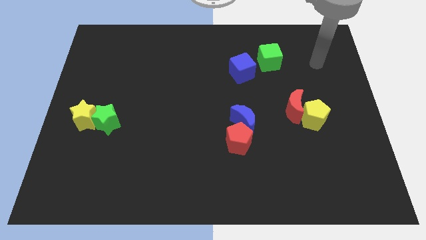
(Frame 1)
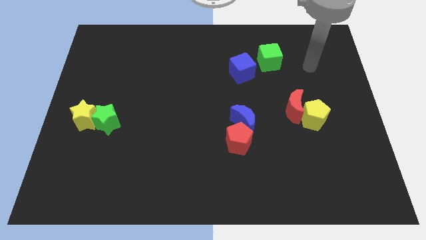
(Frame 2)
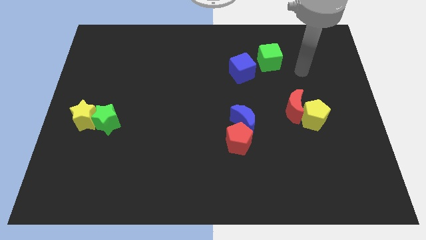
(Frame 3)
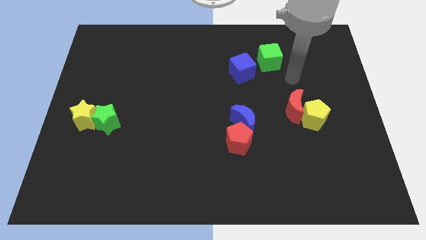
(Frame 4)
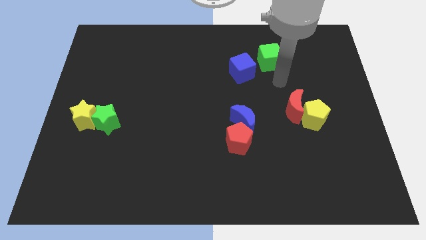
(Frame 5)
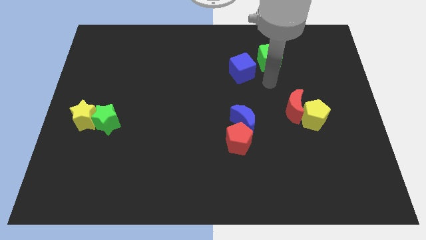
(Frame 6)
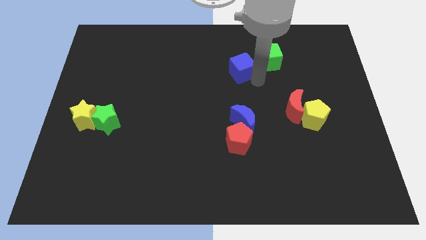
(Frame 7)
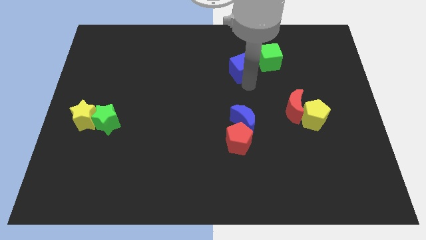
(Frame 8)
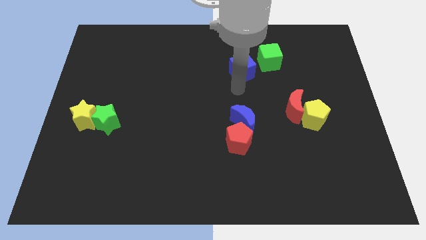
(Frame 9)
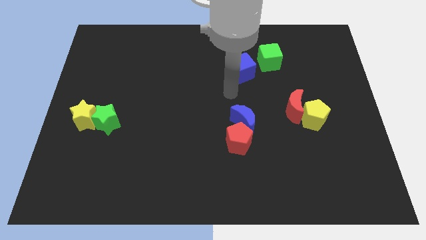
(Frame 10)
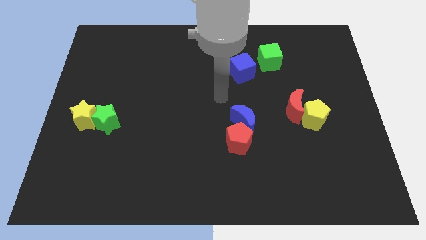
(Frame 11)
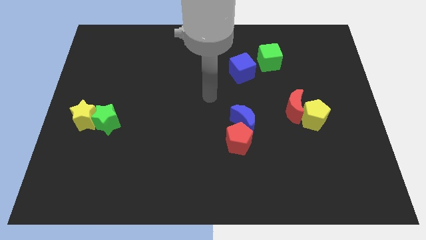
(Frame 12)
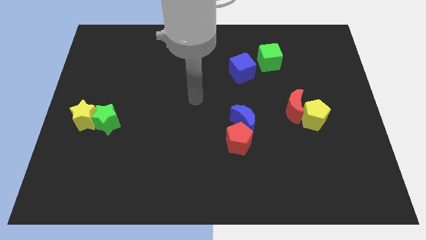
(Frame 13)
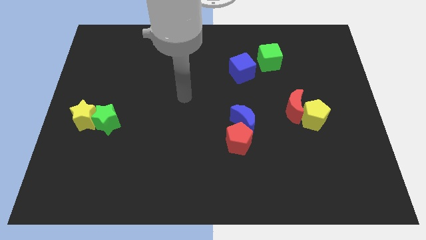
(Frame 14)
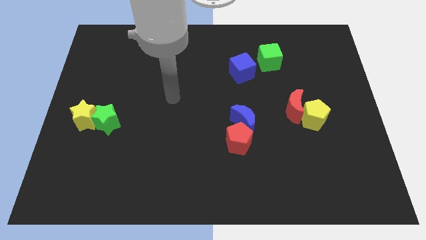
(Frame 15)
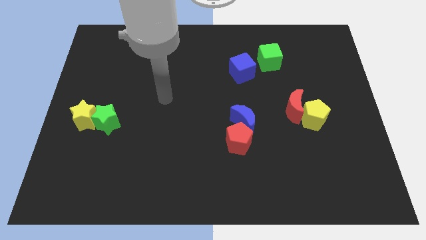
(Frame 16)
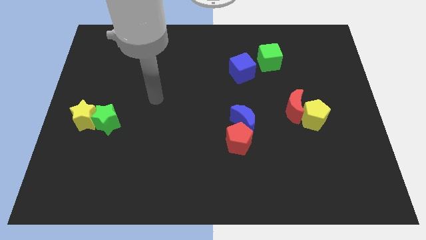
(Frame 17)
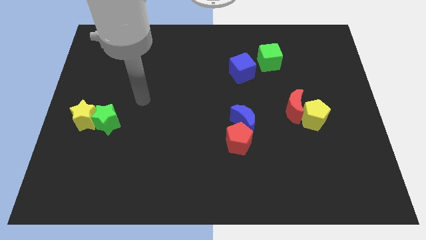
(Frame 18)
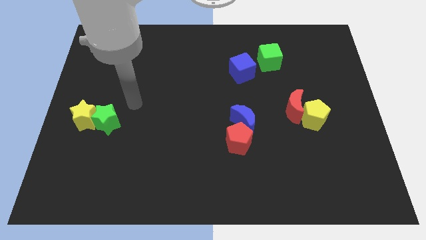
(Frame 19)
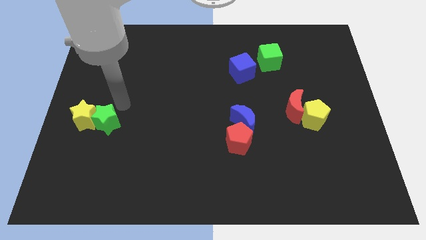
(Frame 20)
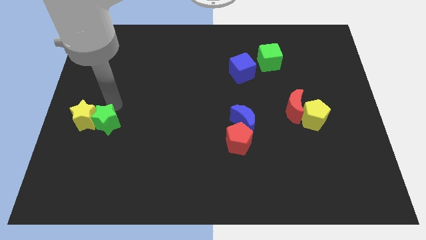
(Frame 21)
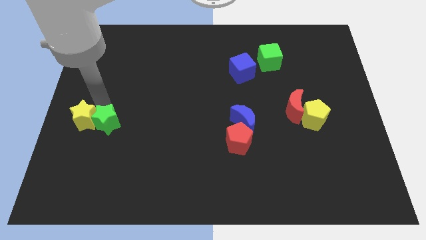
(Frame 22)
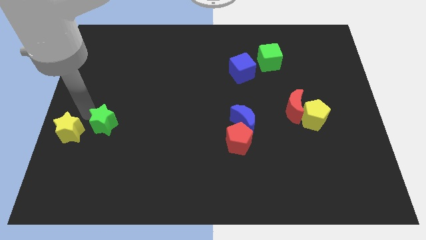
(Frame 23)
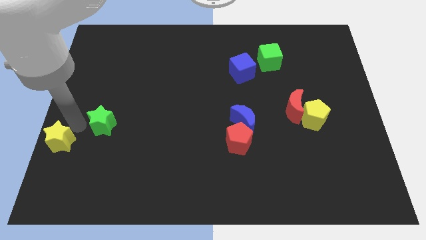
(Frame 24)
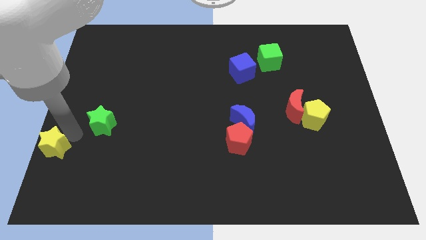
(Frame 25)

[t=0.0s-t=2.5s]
pull the green star apart from the yellow star

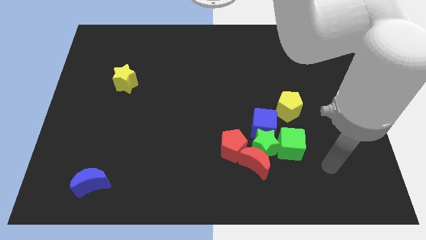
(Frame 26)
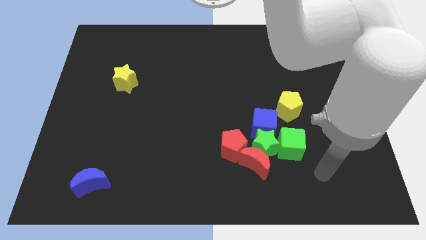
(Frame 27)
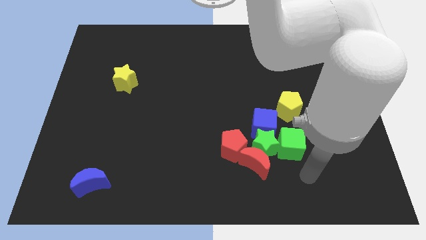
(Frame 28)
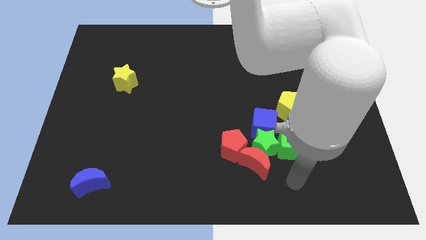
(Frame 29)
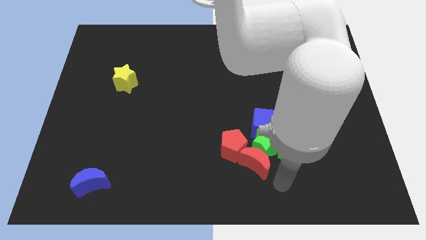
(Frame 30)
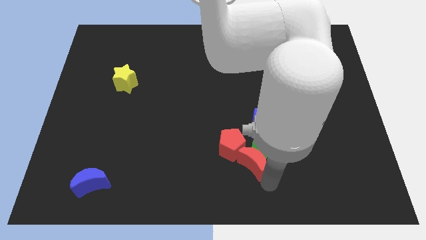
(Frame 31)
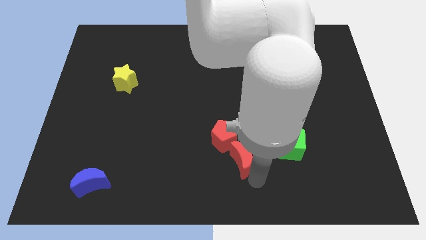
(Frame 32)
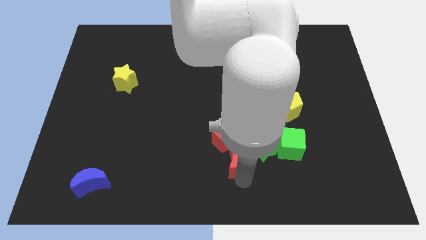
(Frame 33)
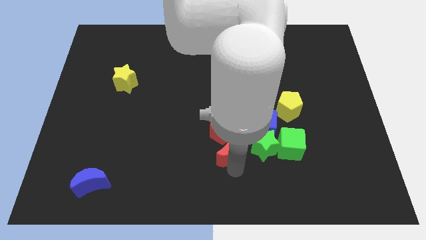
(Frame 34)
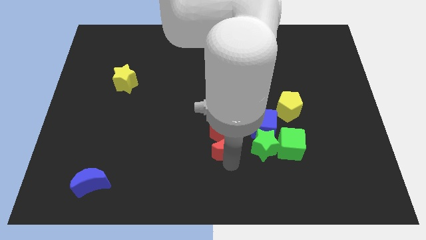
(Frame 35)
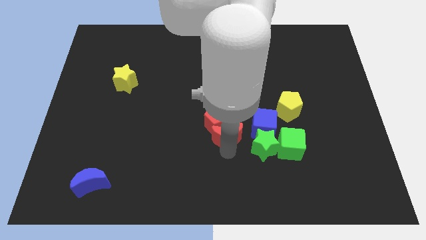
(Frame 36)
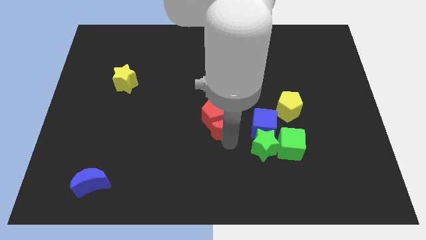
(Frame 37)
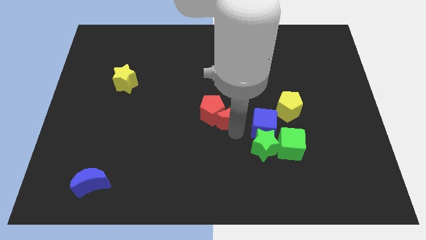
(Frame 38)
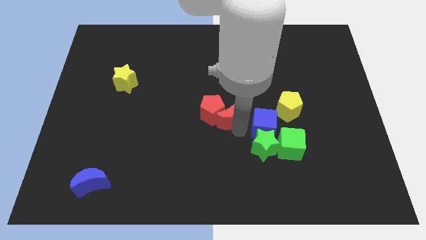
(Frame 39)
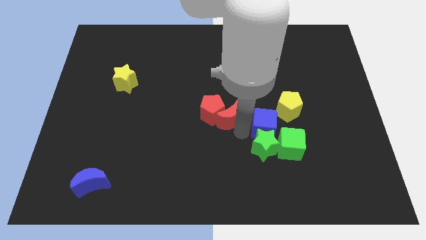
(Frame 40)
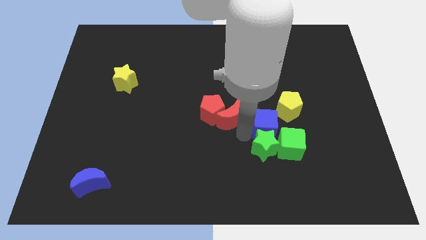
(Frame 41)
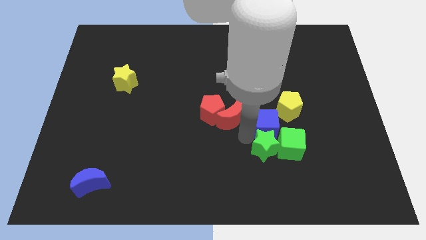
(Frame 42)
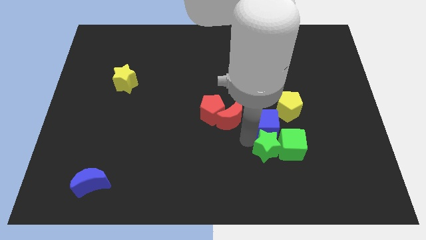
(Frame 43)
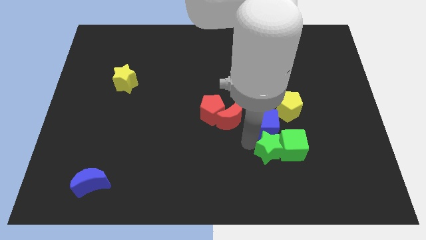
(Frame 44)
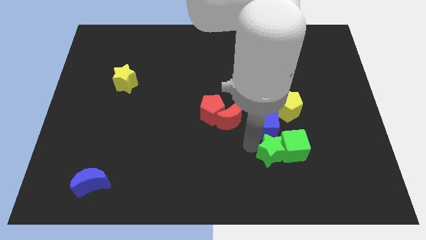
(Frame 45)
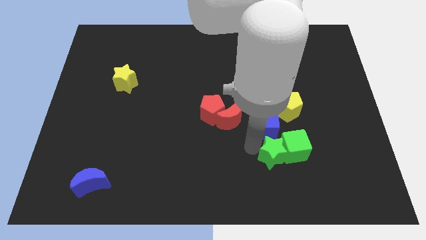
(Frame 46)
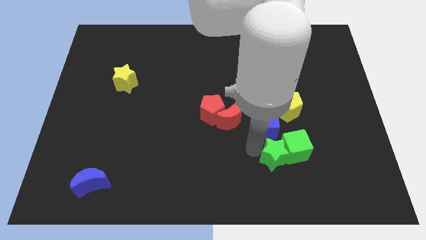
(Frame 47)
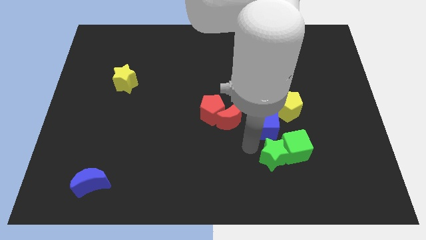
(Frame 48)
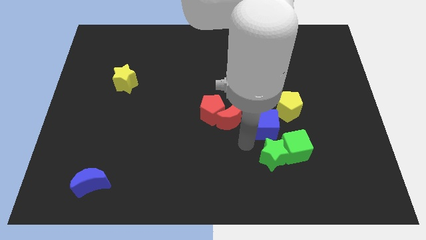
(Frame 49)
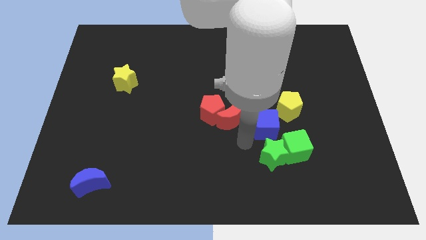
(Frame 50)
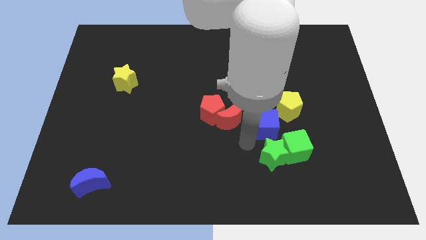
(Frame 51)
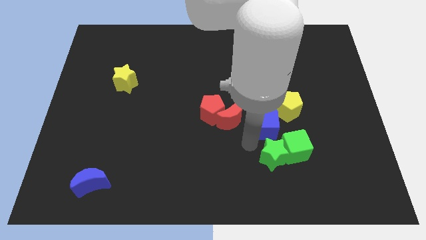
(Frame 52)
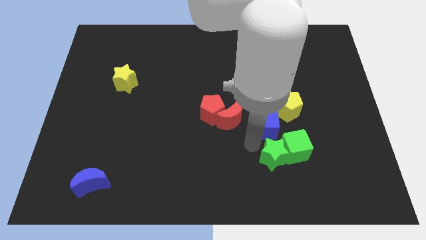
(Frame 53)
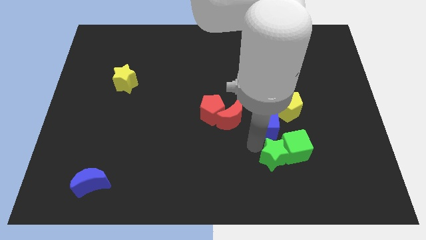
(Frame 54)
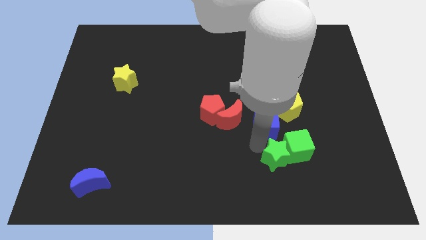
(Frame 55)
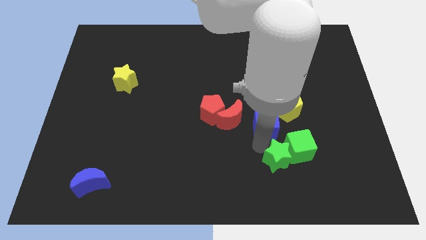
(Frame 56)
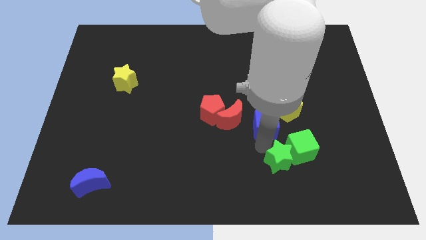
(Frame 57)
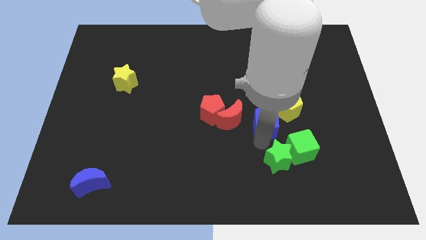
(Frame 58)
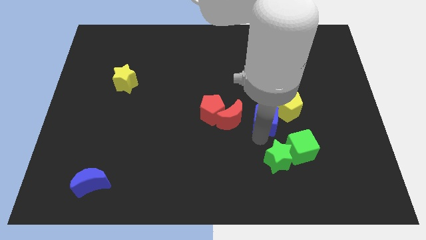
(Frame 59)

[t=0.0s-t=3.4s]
pull the green star apart from the group of blocks

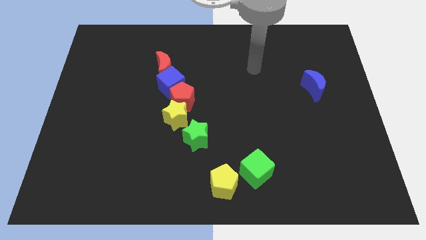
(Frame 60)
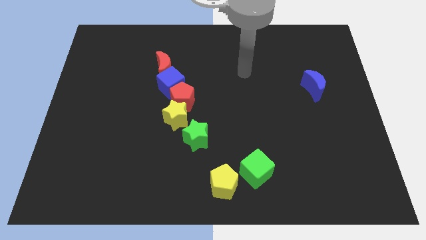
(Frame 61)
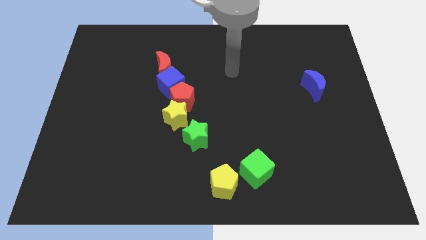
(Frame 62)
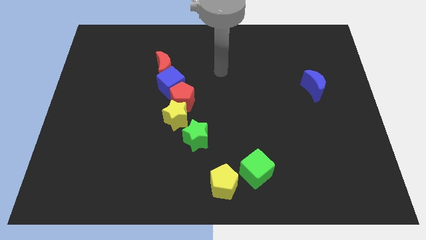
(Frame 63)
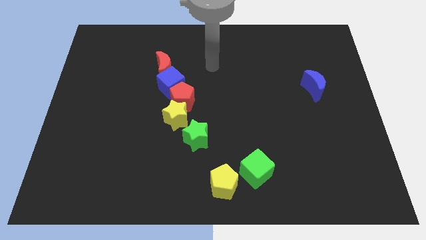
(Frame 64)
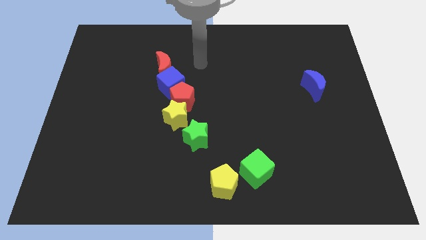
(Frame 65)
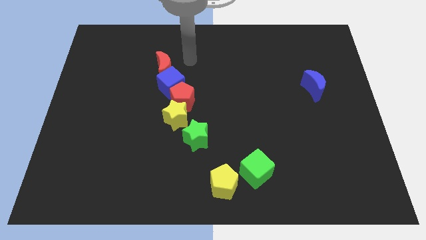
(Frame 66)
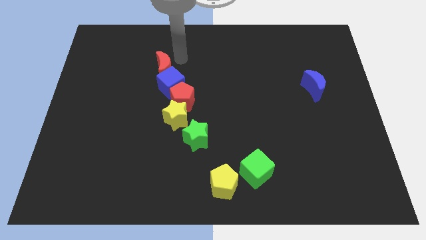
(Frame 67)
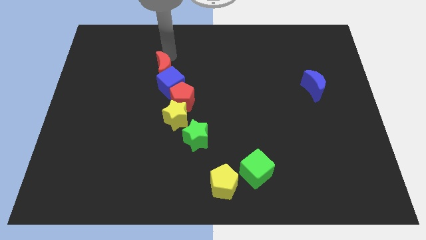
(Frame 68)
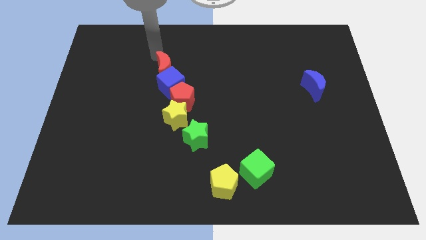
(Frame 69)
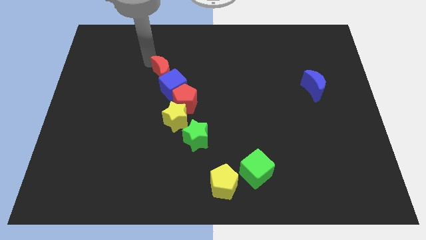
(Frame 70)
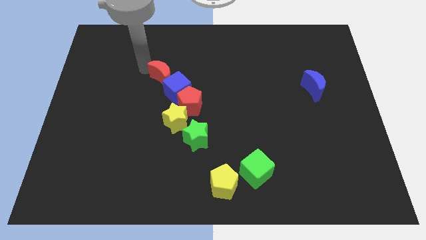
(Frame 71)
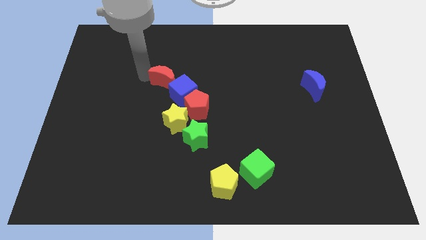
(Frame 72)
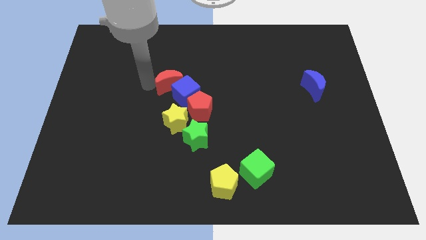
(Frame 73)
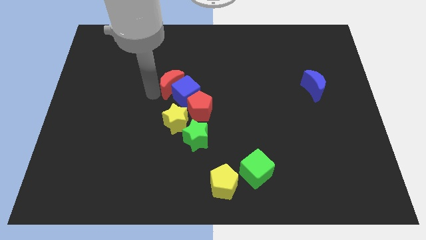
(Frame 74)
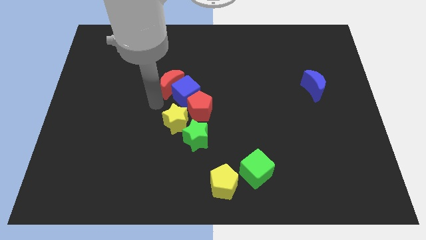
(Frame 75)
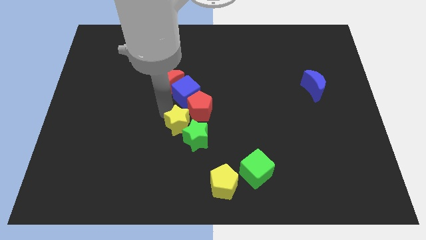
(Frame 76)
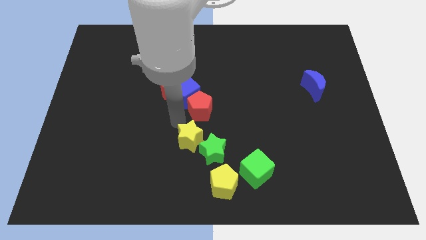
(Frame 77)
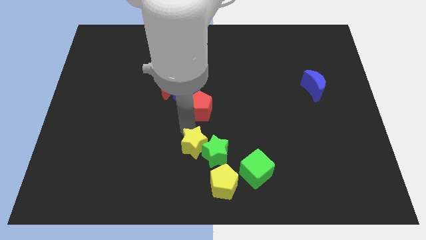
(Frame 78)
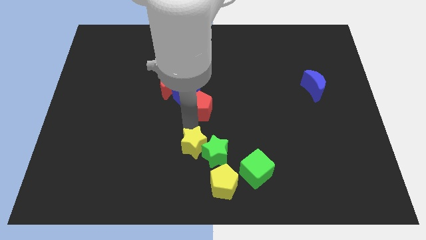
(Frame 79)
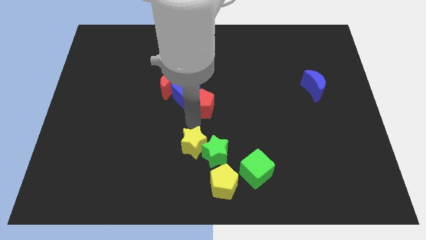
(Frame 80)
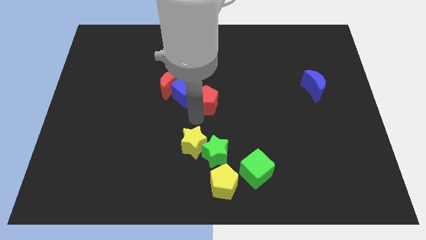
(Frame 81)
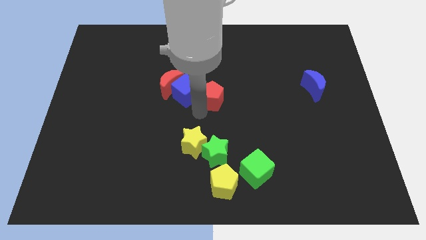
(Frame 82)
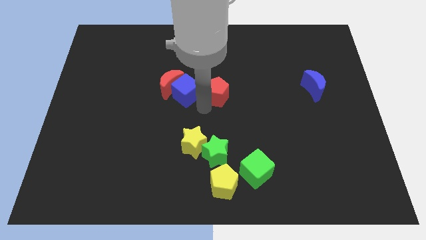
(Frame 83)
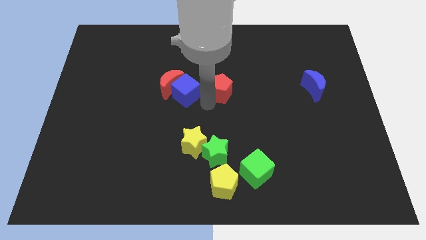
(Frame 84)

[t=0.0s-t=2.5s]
pull the red pentagon apart from the blue cube and yellow star

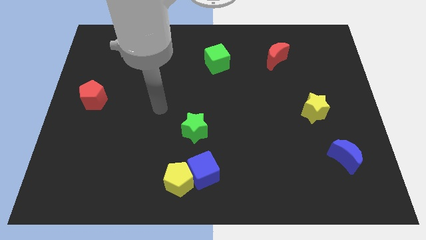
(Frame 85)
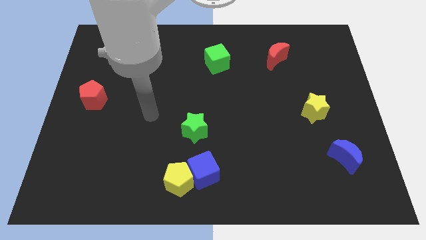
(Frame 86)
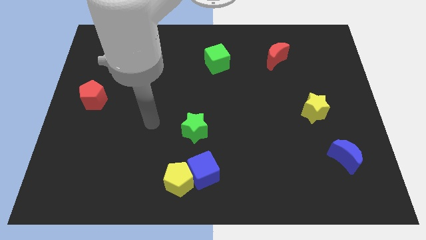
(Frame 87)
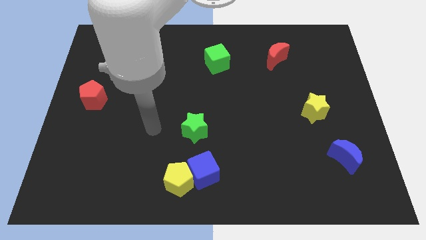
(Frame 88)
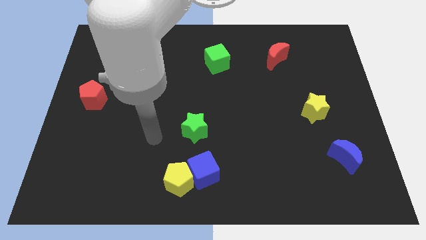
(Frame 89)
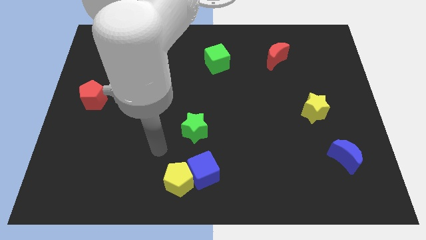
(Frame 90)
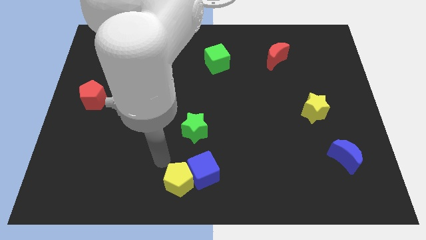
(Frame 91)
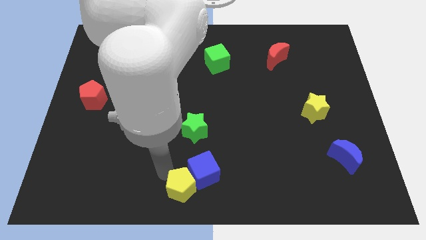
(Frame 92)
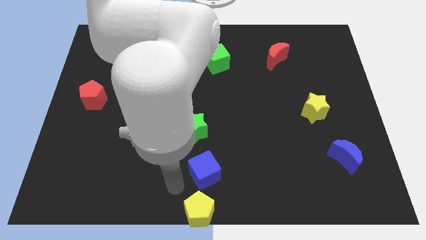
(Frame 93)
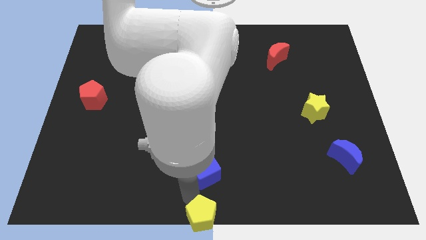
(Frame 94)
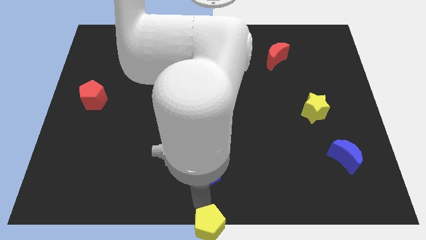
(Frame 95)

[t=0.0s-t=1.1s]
move the blue cube away from the yellow pentagon
